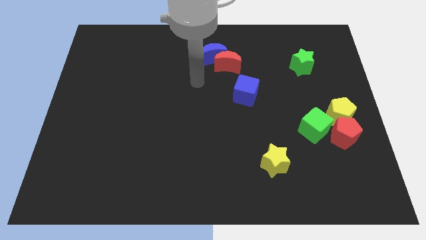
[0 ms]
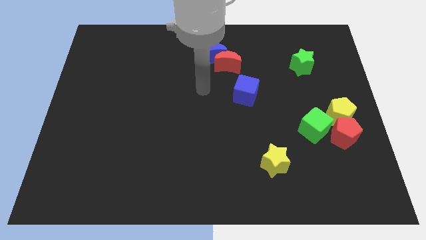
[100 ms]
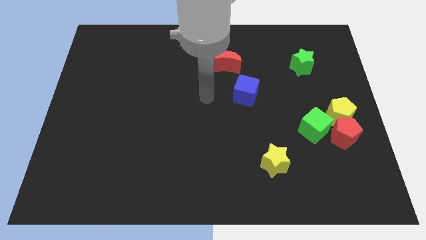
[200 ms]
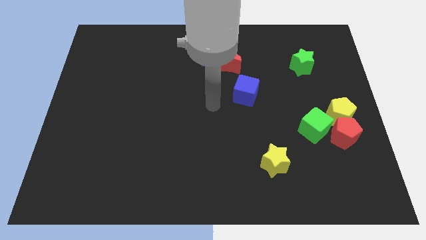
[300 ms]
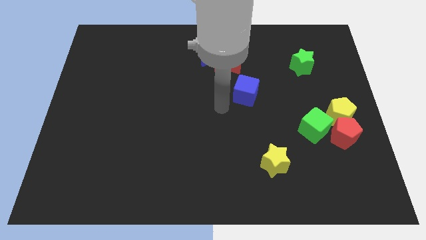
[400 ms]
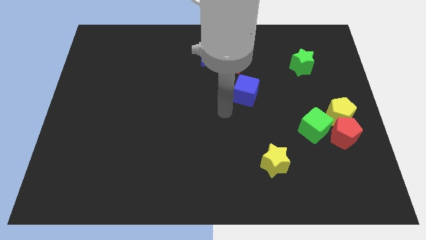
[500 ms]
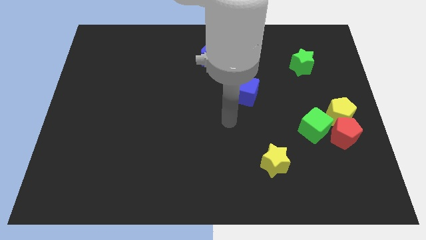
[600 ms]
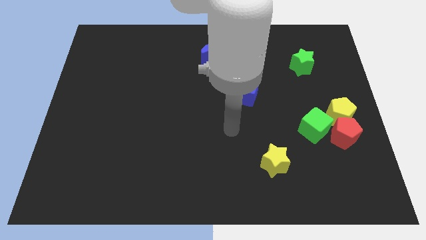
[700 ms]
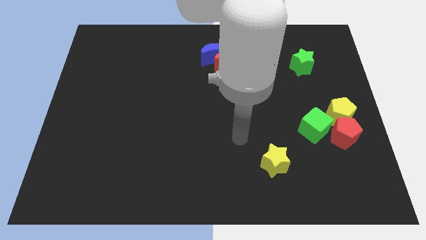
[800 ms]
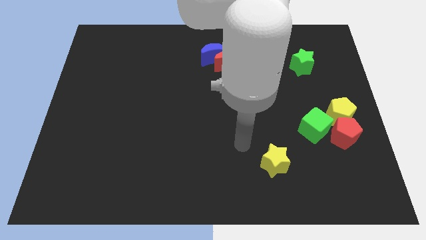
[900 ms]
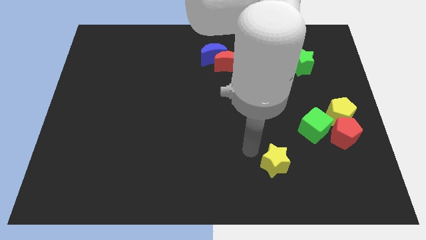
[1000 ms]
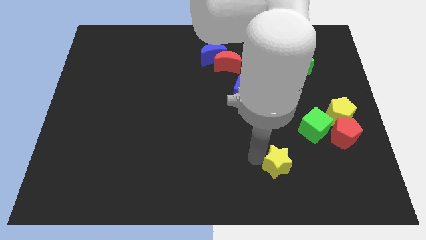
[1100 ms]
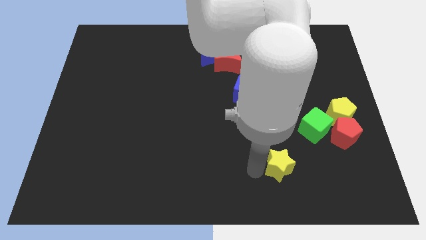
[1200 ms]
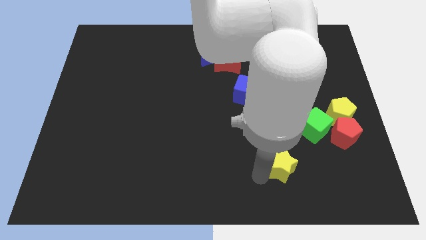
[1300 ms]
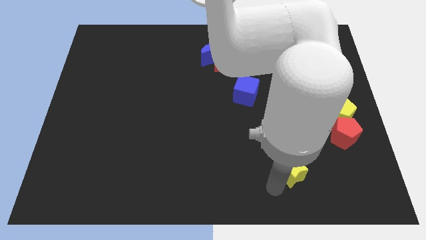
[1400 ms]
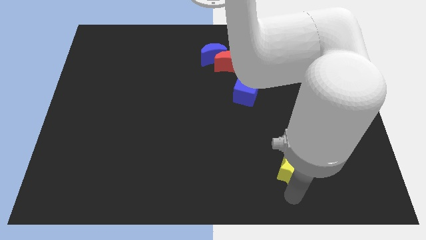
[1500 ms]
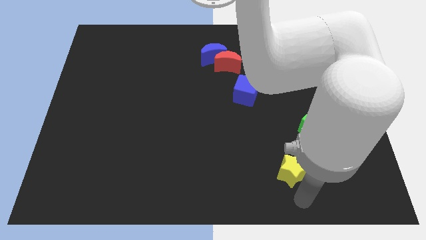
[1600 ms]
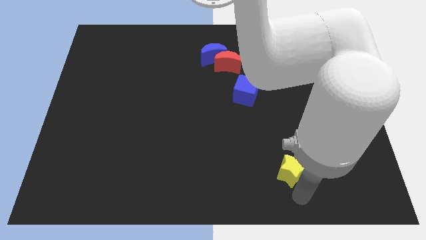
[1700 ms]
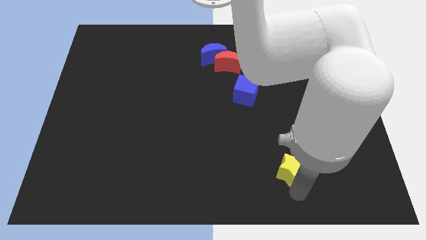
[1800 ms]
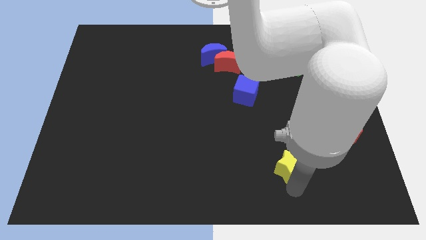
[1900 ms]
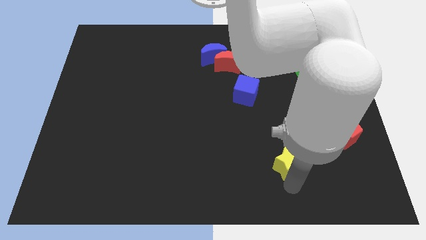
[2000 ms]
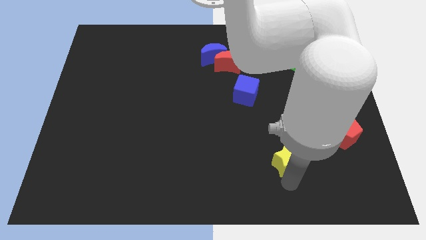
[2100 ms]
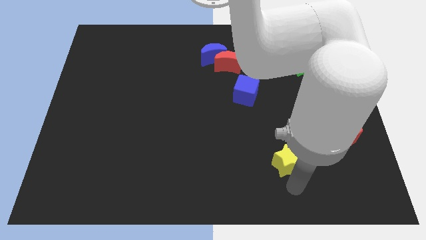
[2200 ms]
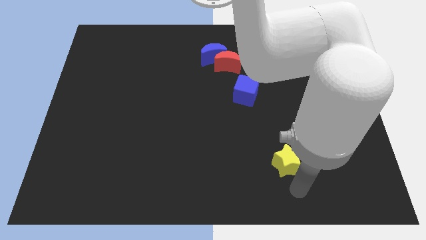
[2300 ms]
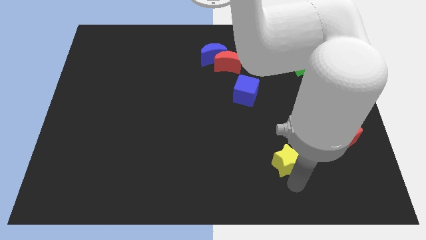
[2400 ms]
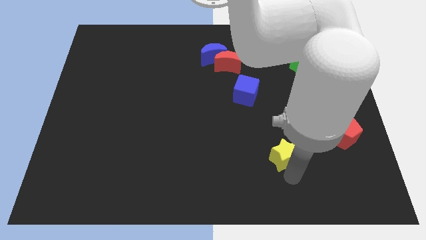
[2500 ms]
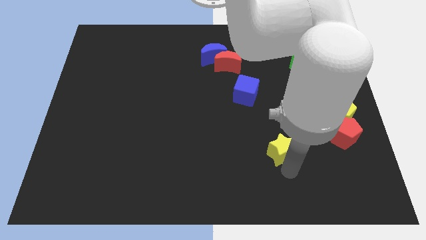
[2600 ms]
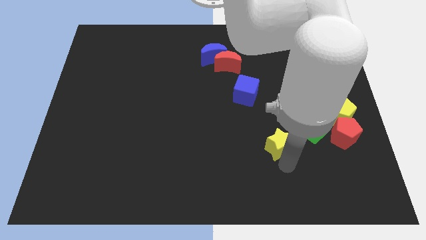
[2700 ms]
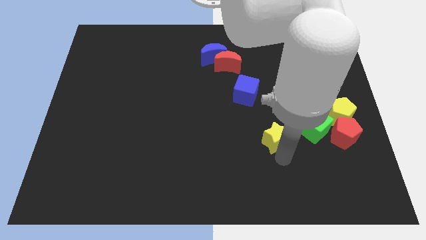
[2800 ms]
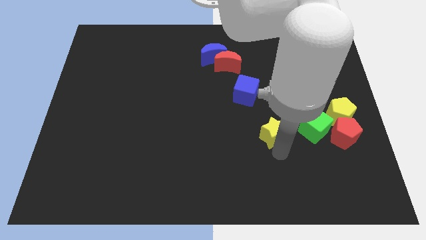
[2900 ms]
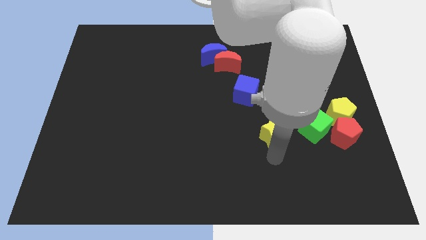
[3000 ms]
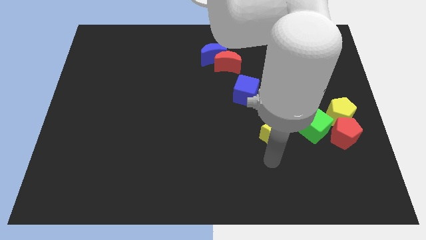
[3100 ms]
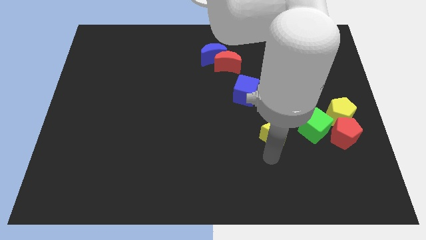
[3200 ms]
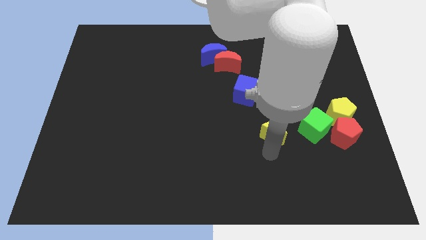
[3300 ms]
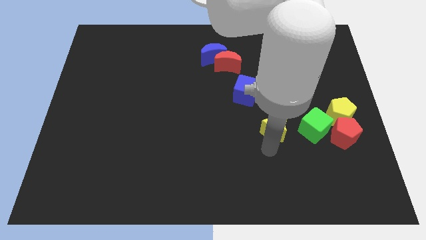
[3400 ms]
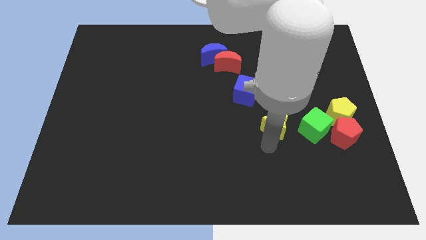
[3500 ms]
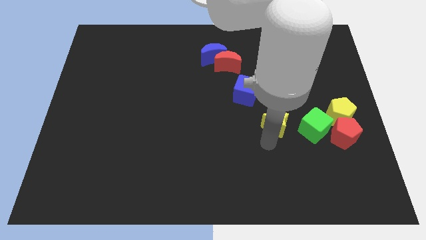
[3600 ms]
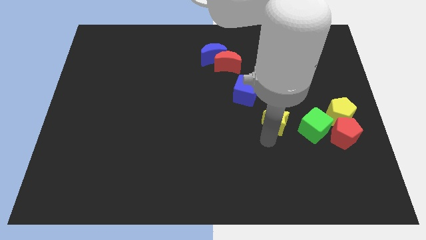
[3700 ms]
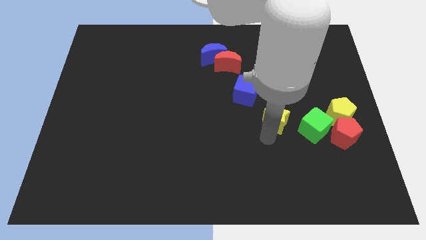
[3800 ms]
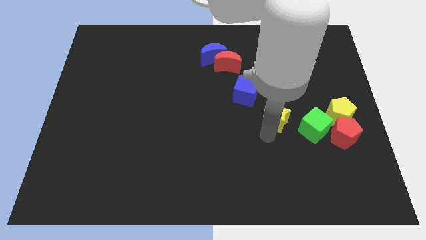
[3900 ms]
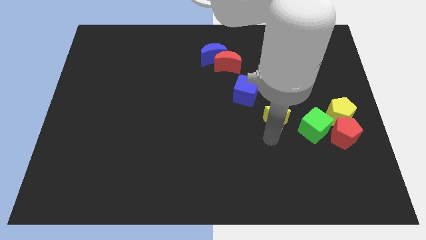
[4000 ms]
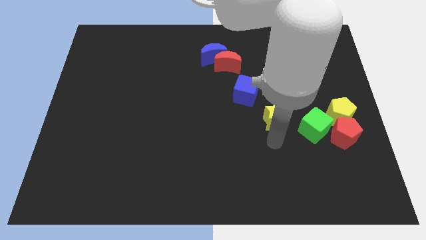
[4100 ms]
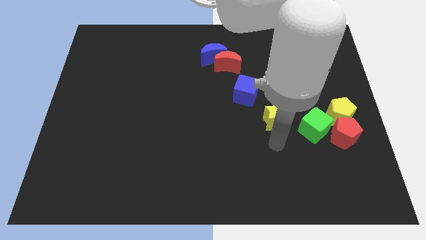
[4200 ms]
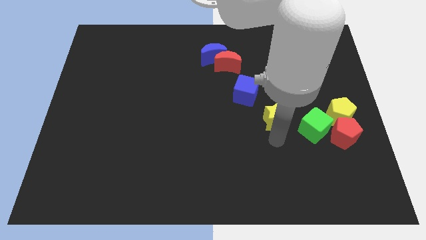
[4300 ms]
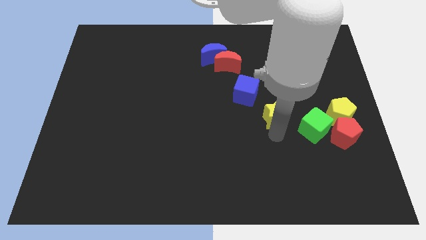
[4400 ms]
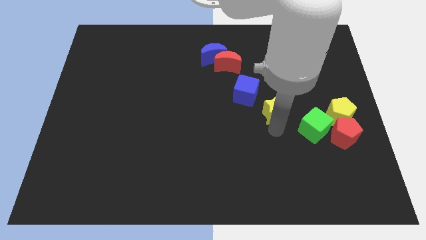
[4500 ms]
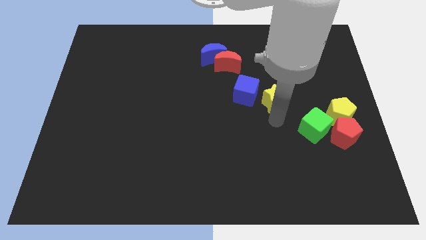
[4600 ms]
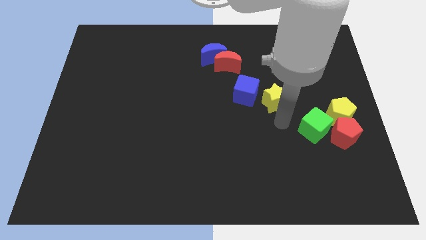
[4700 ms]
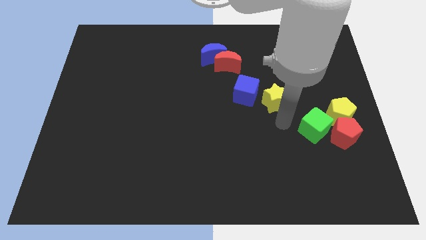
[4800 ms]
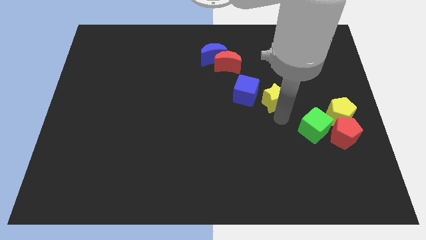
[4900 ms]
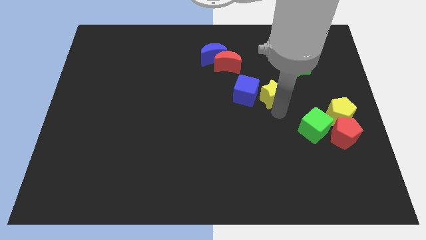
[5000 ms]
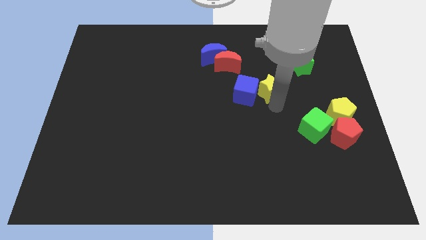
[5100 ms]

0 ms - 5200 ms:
put the yellow star to the top right of the blue cube

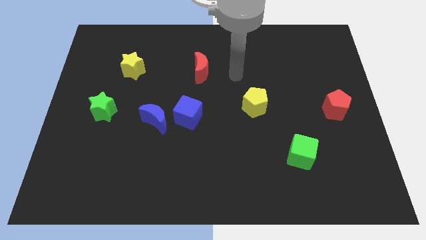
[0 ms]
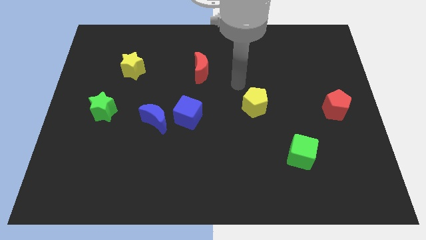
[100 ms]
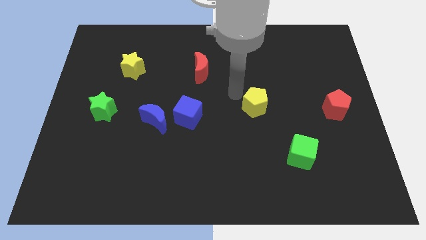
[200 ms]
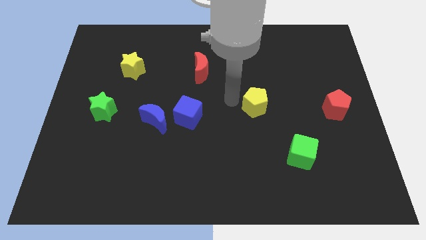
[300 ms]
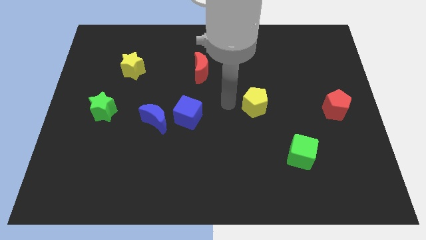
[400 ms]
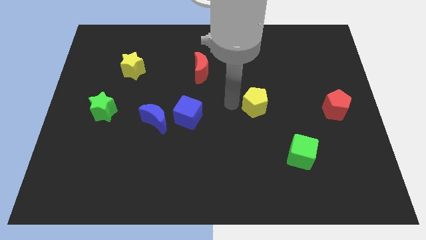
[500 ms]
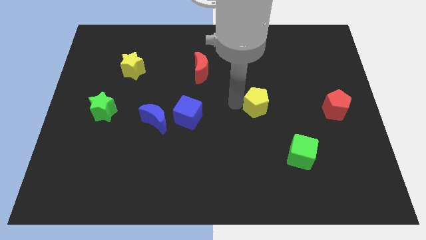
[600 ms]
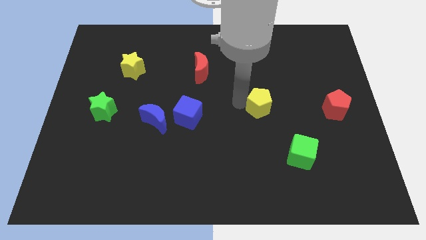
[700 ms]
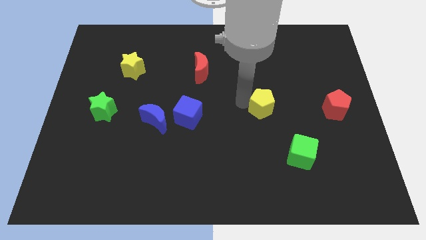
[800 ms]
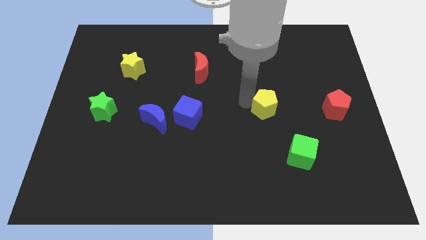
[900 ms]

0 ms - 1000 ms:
put the yellow pentagon to the left side of the red pentagon
